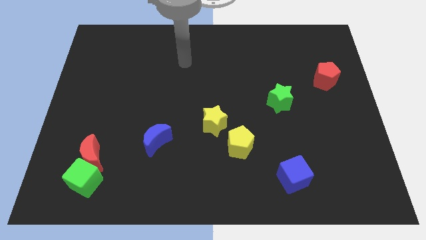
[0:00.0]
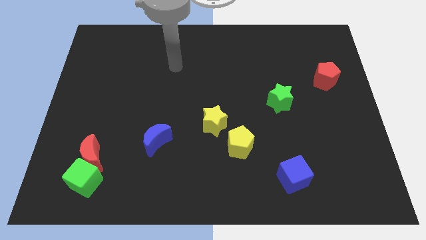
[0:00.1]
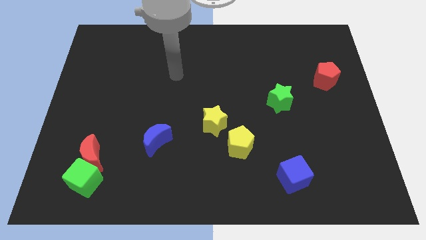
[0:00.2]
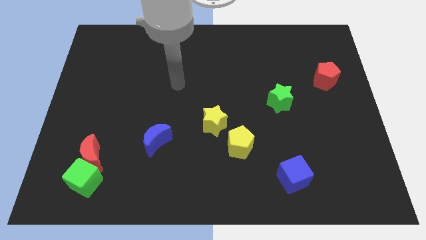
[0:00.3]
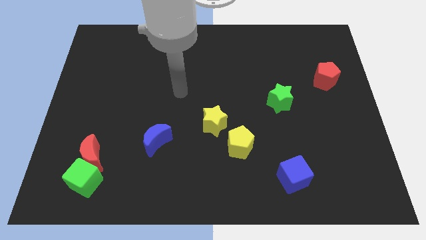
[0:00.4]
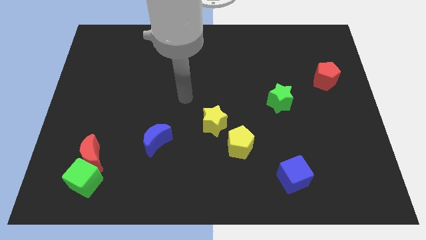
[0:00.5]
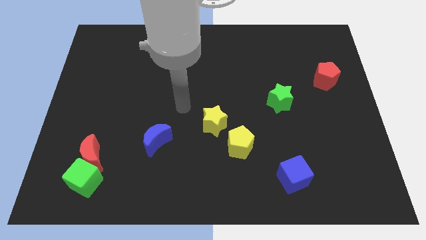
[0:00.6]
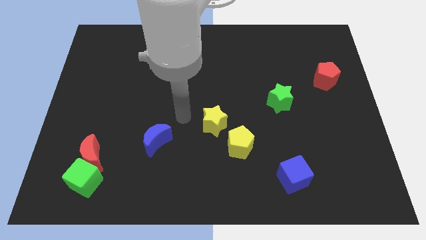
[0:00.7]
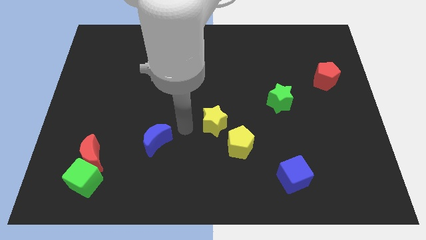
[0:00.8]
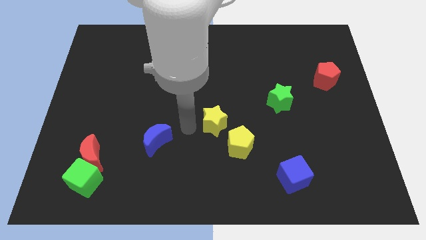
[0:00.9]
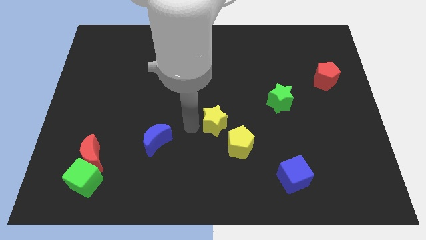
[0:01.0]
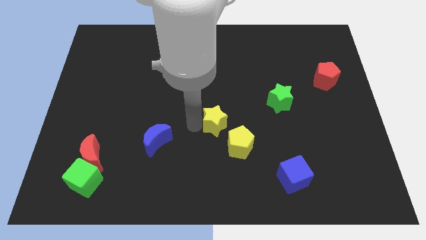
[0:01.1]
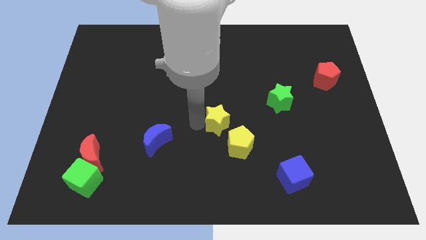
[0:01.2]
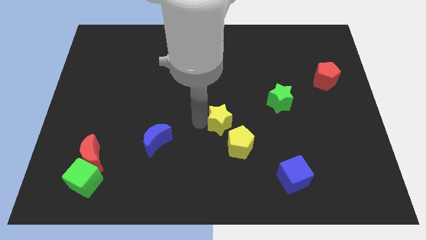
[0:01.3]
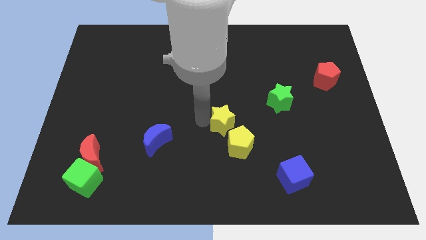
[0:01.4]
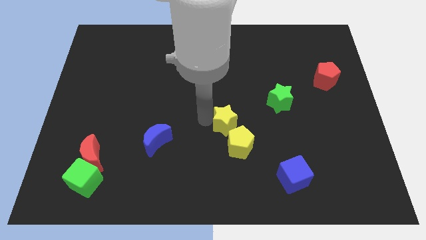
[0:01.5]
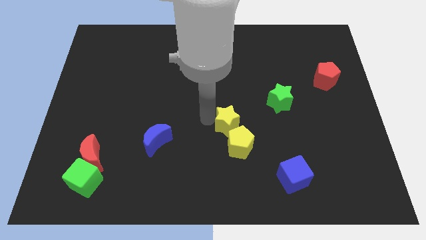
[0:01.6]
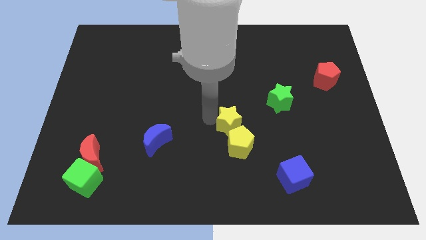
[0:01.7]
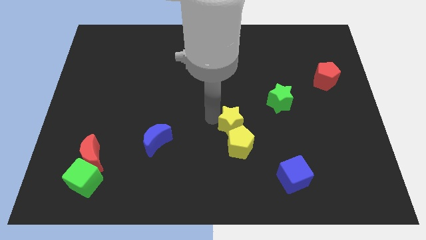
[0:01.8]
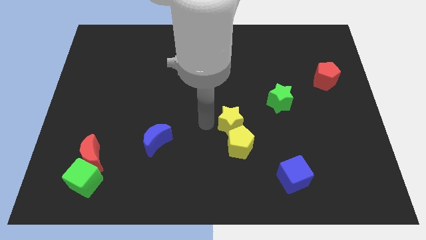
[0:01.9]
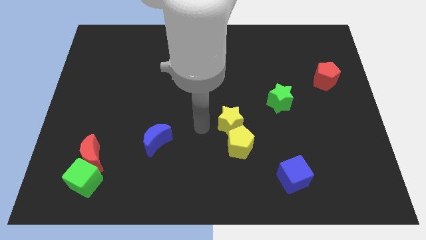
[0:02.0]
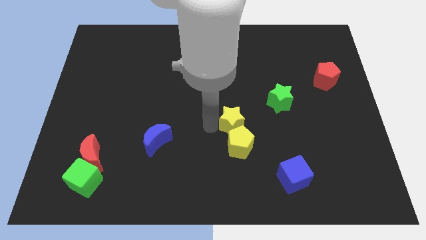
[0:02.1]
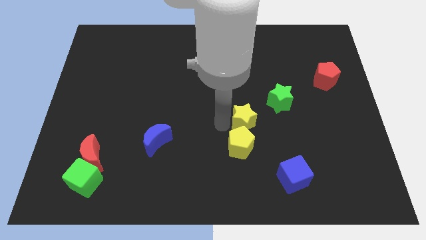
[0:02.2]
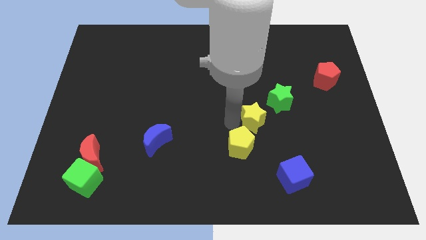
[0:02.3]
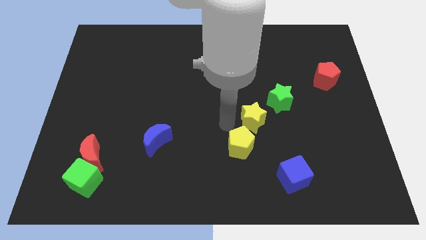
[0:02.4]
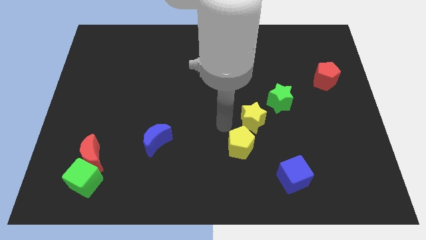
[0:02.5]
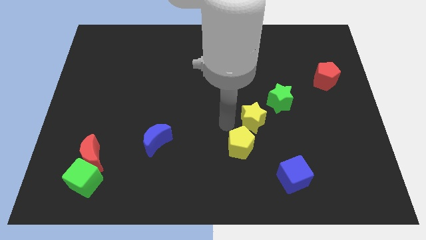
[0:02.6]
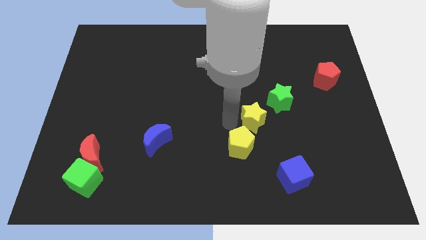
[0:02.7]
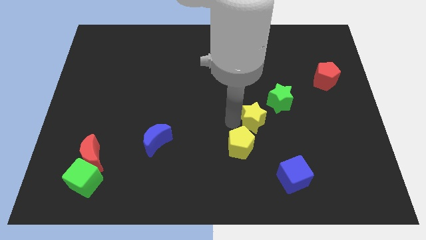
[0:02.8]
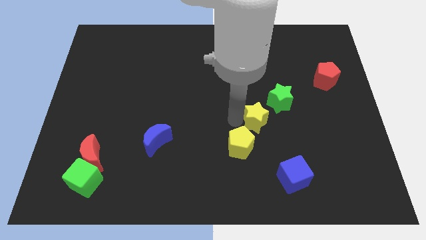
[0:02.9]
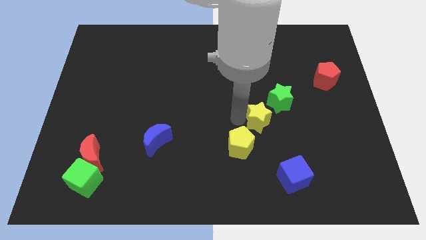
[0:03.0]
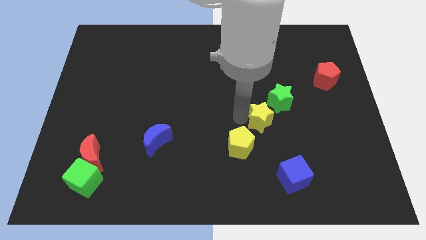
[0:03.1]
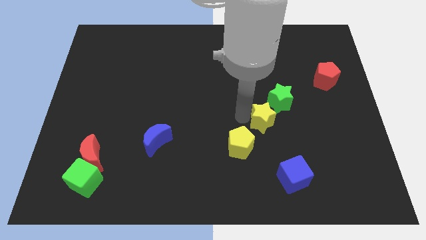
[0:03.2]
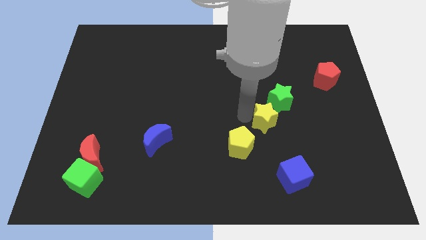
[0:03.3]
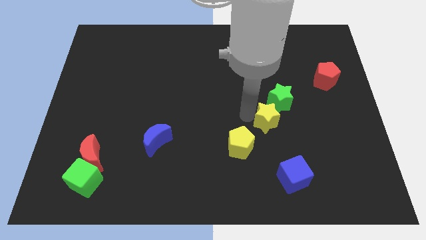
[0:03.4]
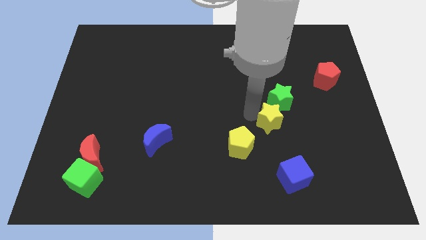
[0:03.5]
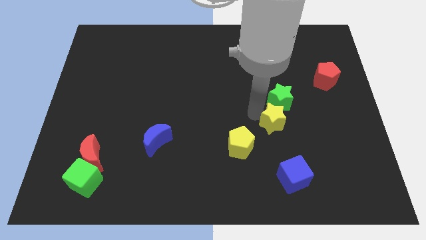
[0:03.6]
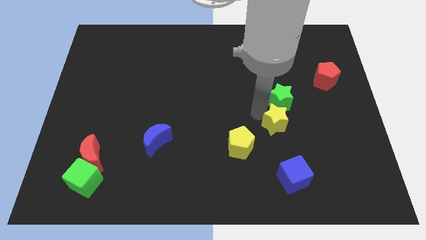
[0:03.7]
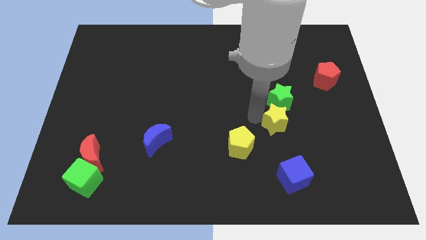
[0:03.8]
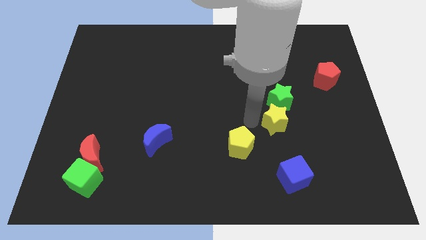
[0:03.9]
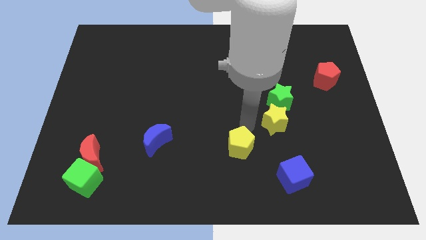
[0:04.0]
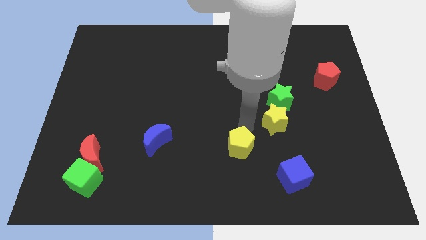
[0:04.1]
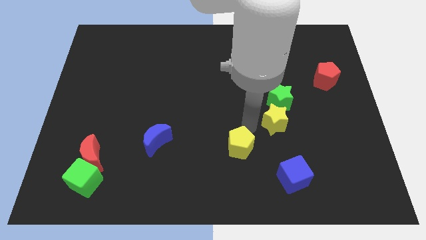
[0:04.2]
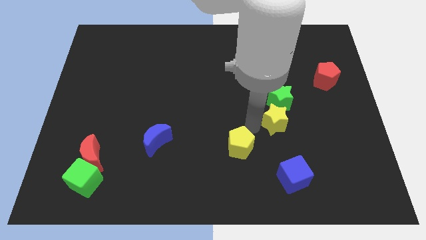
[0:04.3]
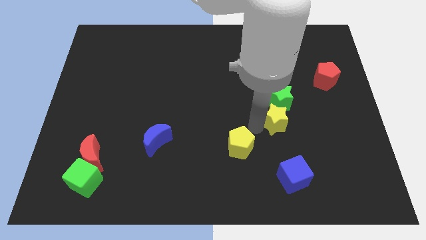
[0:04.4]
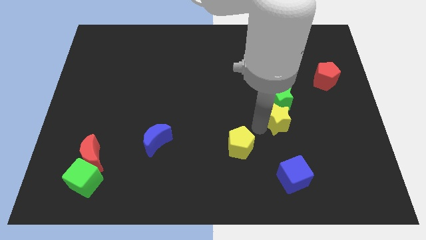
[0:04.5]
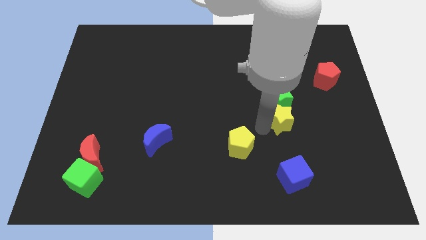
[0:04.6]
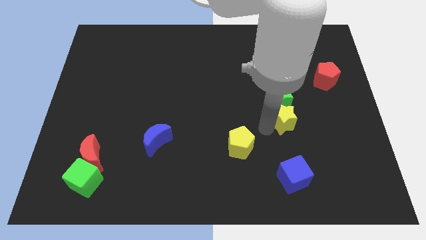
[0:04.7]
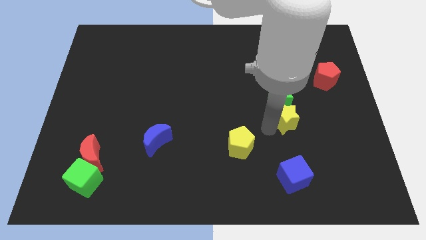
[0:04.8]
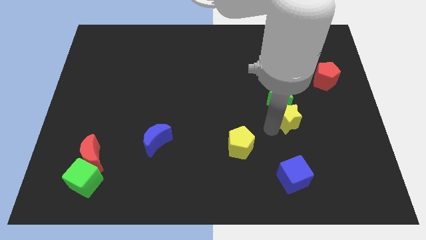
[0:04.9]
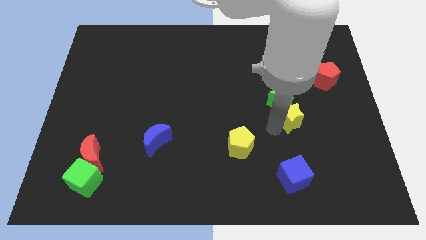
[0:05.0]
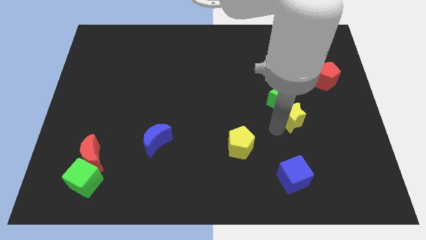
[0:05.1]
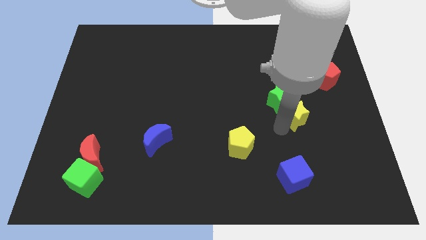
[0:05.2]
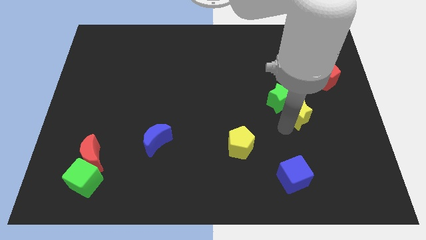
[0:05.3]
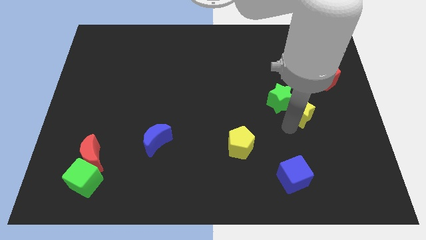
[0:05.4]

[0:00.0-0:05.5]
push the yellow star right of the green star

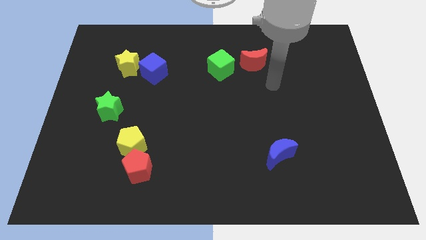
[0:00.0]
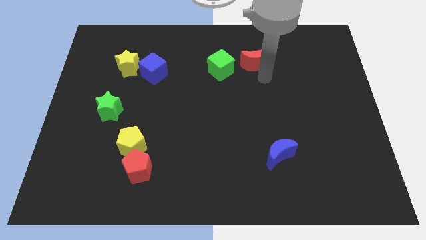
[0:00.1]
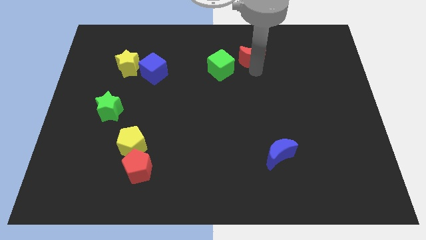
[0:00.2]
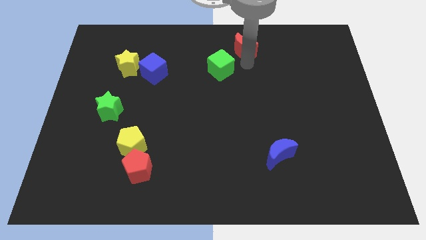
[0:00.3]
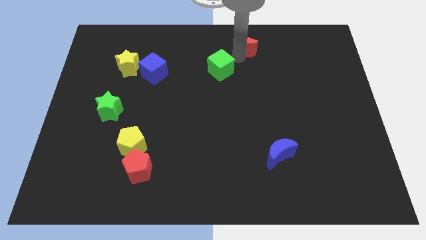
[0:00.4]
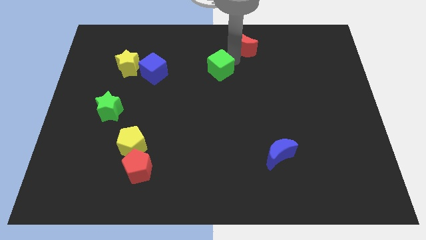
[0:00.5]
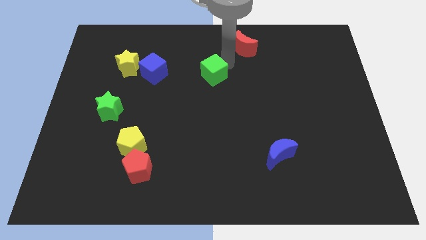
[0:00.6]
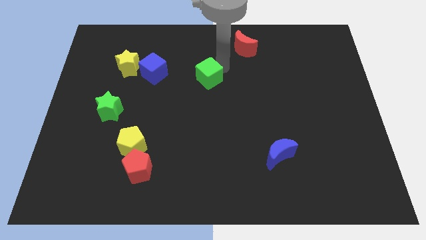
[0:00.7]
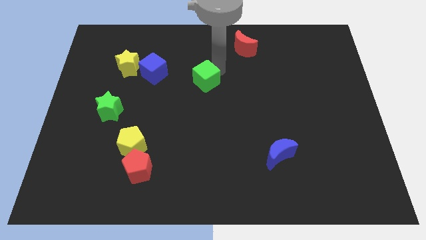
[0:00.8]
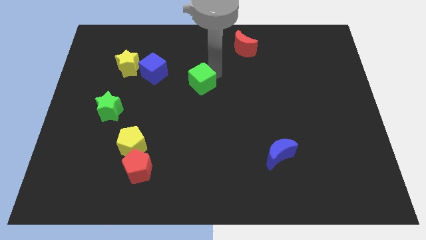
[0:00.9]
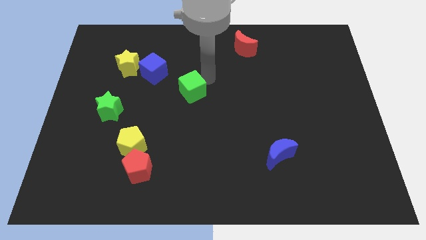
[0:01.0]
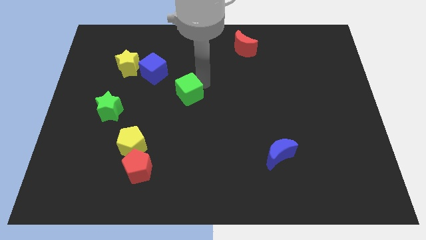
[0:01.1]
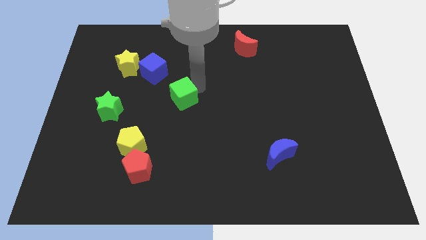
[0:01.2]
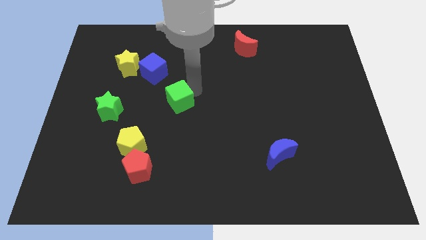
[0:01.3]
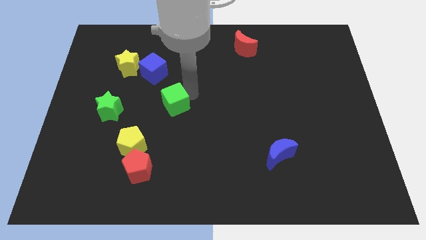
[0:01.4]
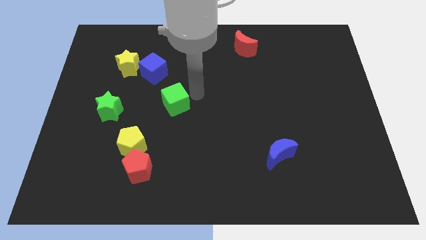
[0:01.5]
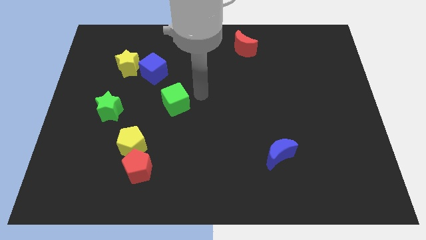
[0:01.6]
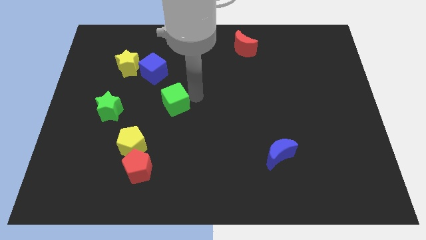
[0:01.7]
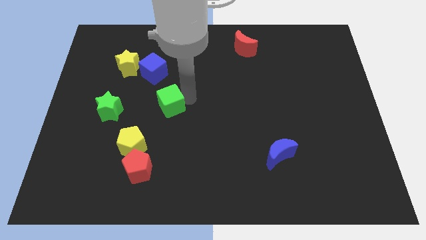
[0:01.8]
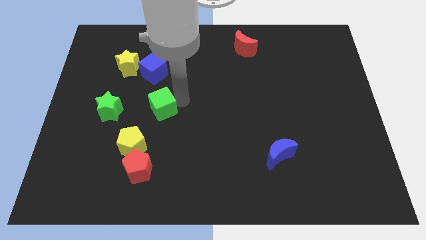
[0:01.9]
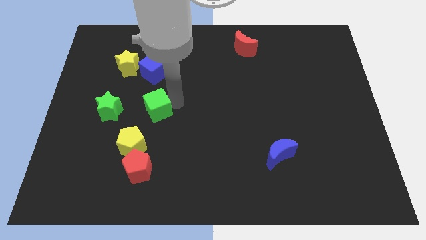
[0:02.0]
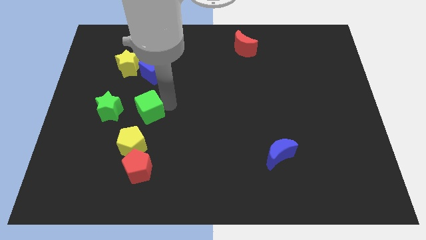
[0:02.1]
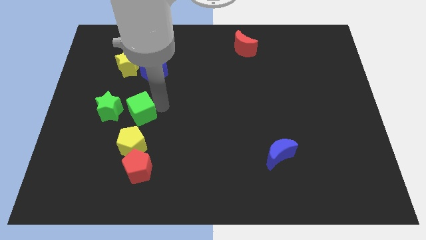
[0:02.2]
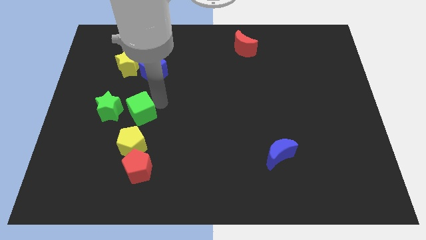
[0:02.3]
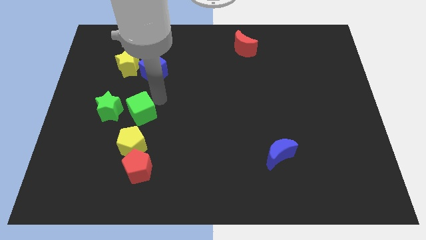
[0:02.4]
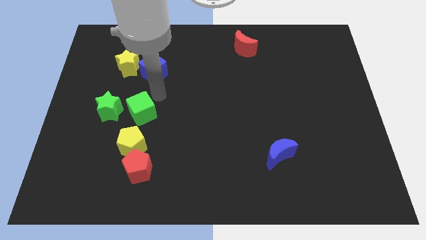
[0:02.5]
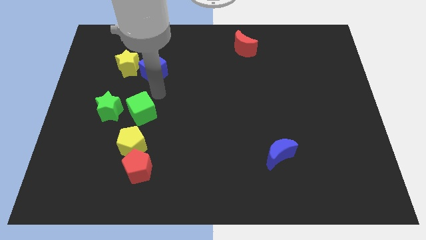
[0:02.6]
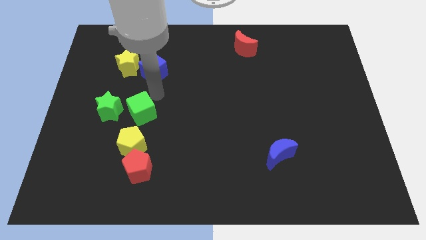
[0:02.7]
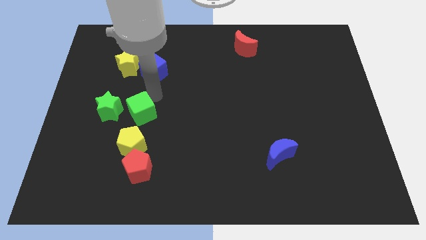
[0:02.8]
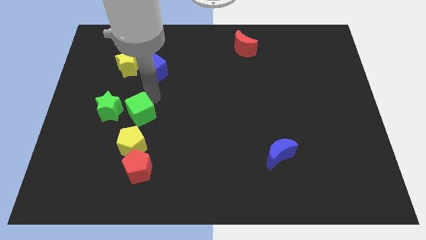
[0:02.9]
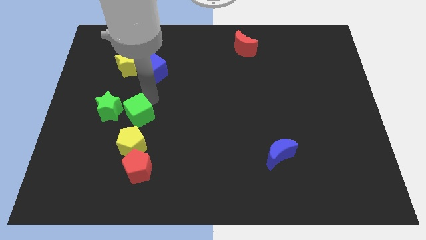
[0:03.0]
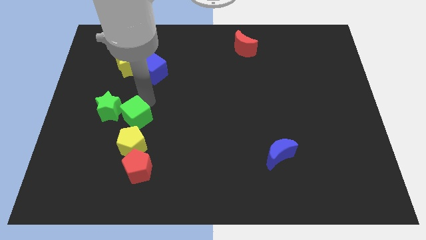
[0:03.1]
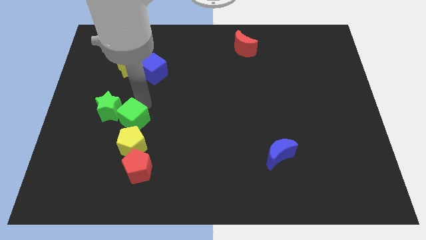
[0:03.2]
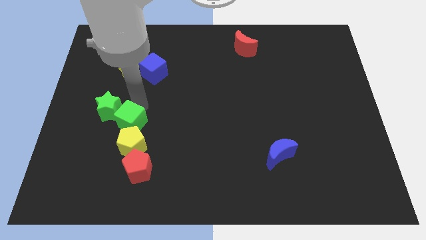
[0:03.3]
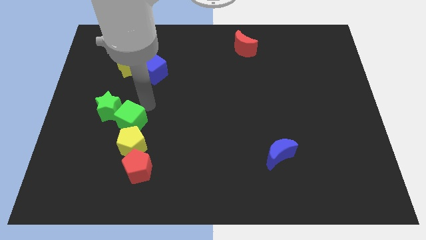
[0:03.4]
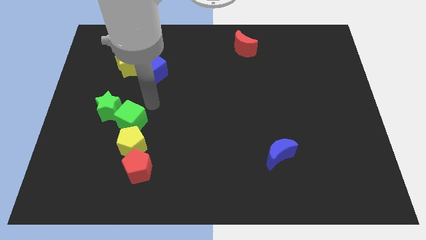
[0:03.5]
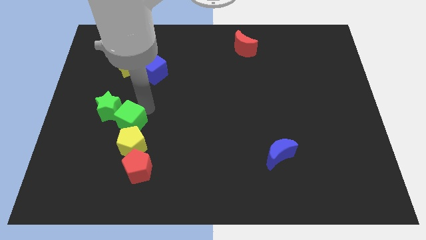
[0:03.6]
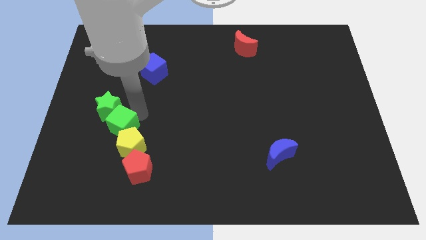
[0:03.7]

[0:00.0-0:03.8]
move the green cube below the green star
